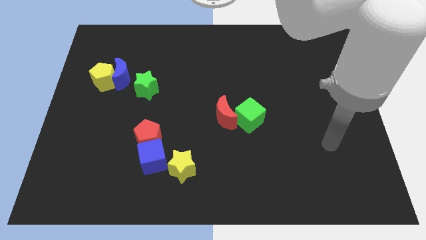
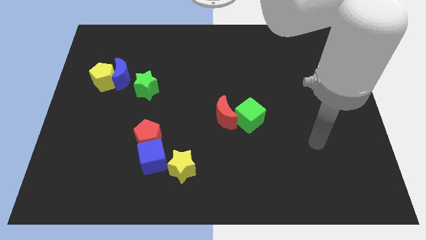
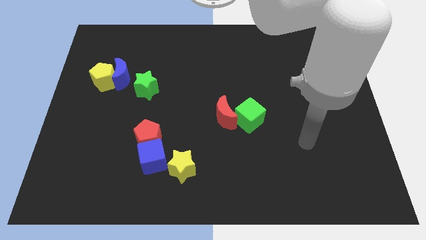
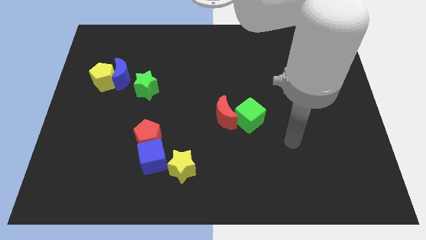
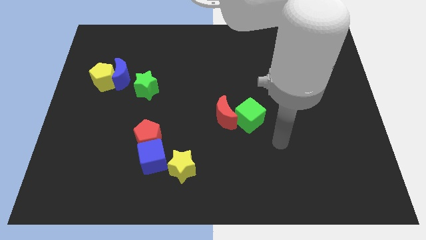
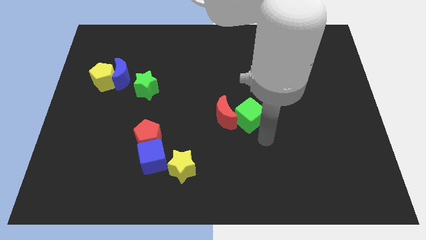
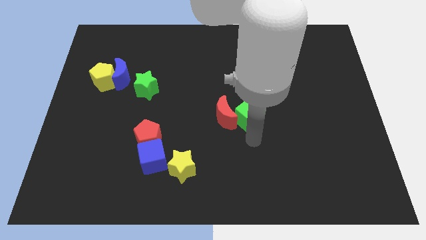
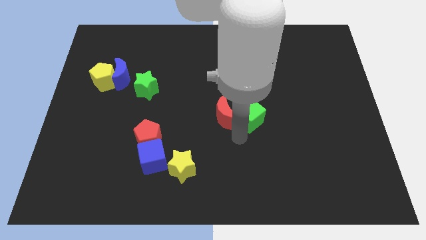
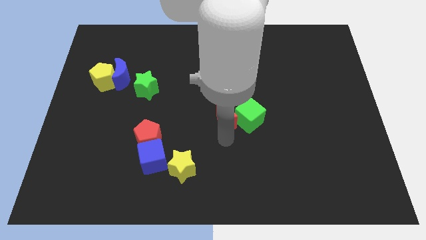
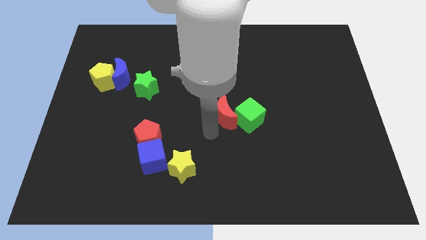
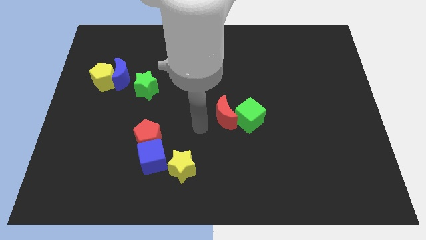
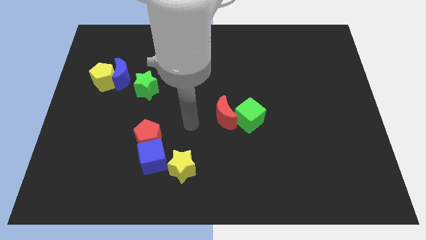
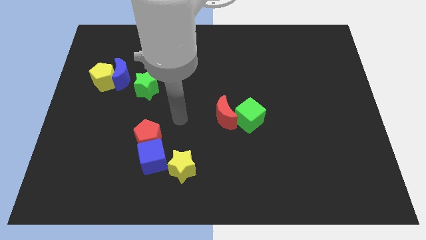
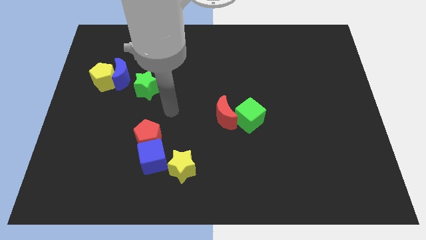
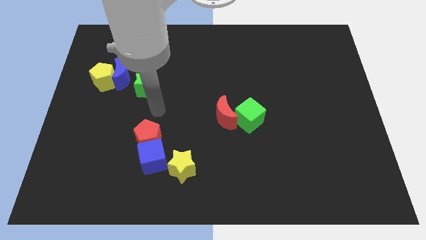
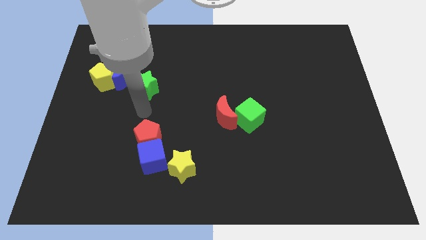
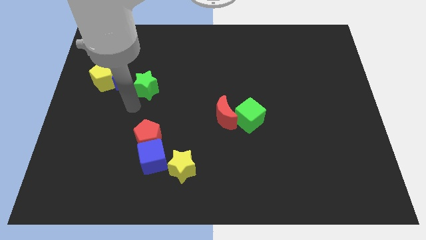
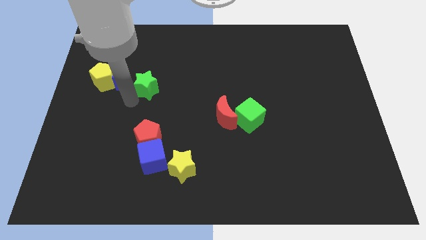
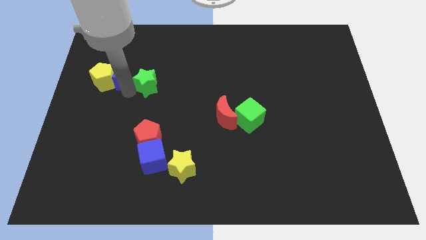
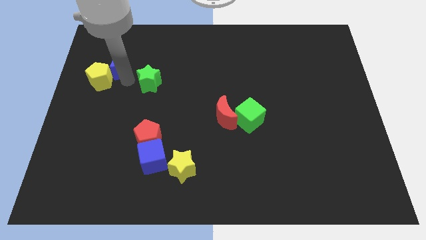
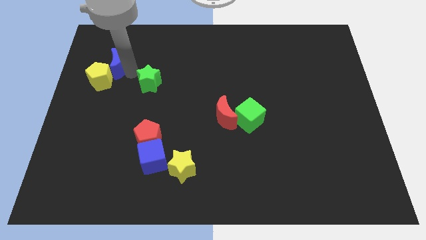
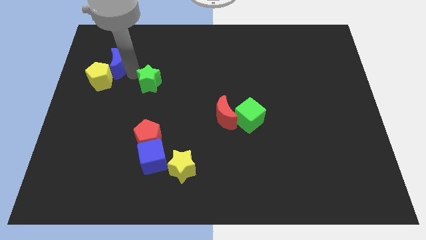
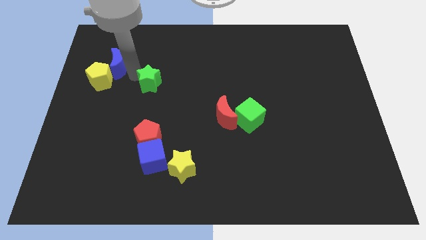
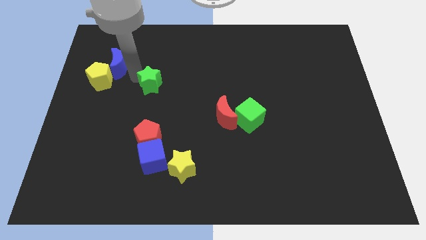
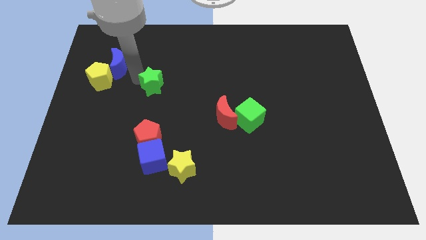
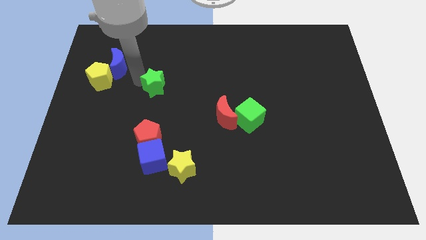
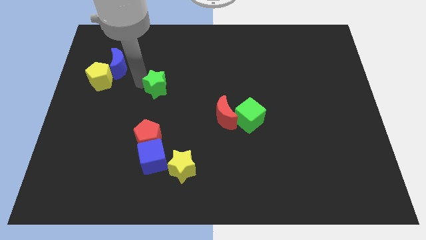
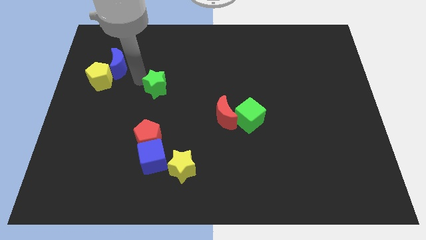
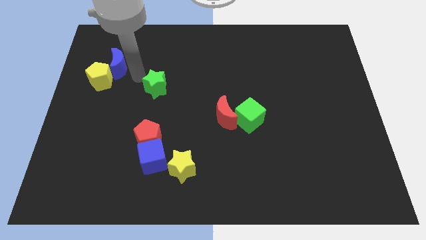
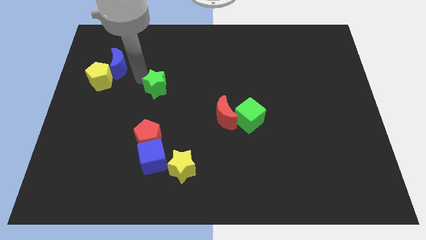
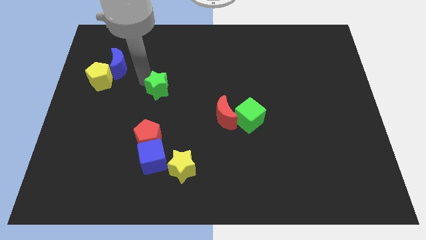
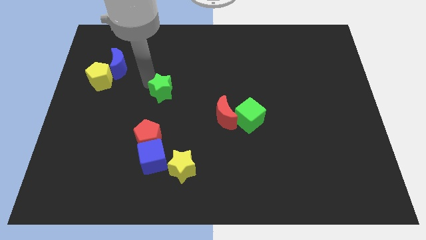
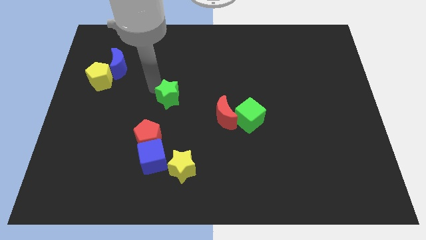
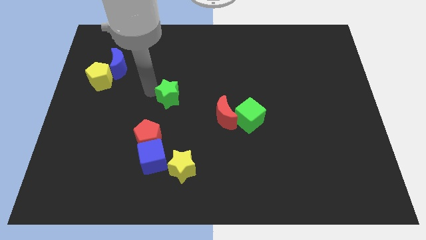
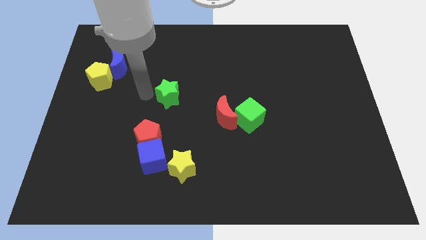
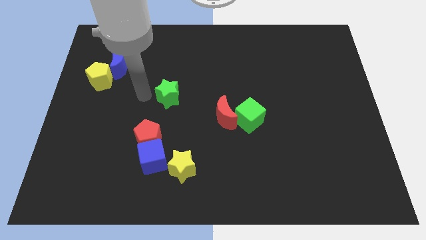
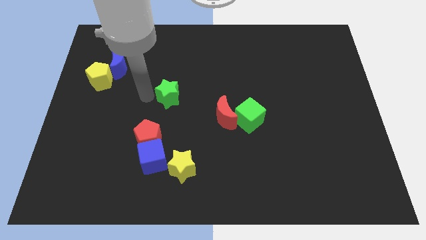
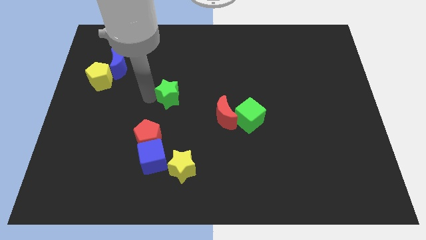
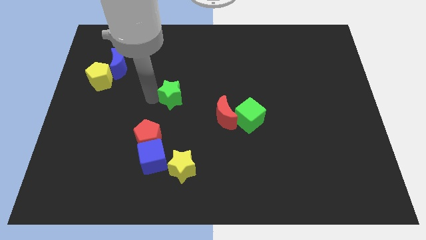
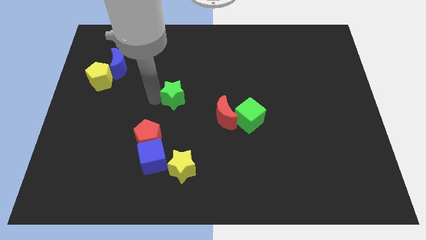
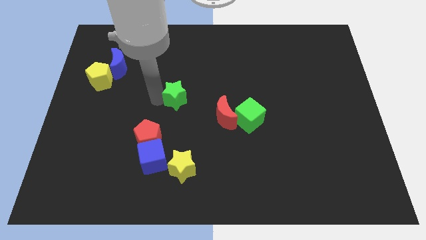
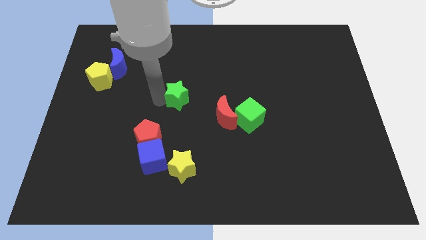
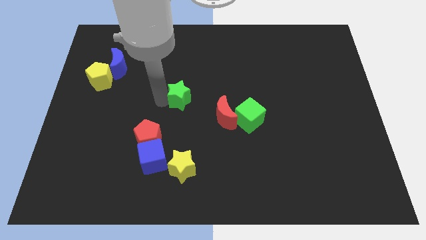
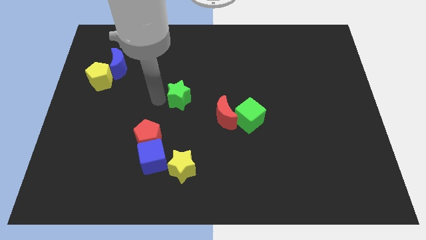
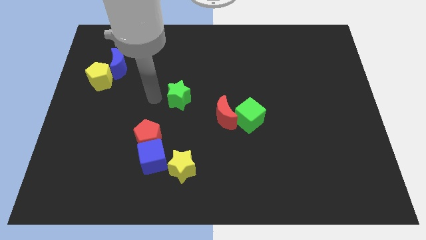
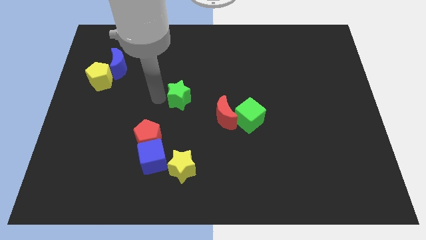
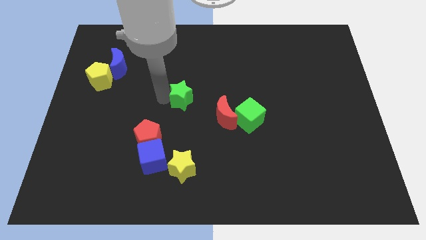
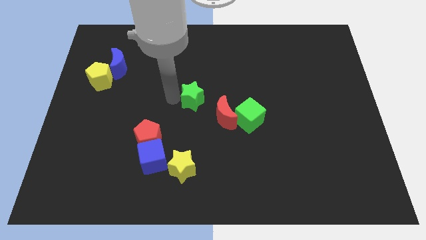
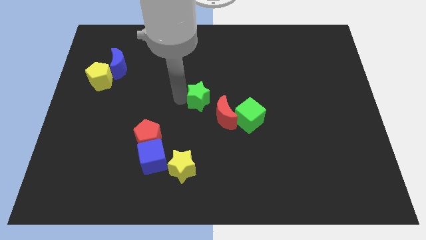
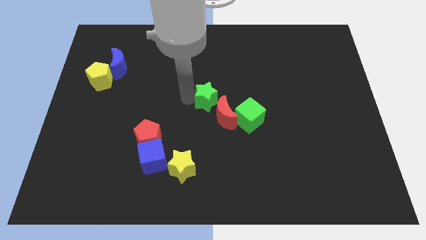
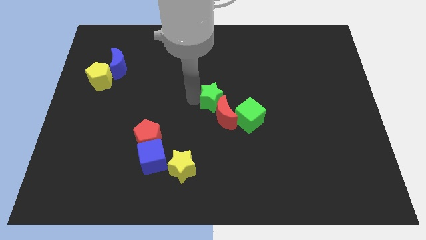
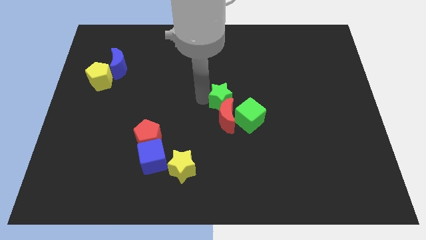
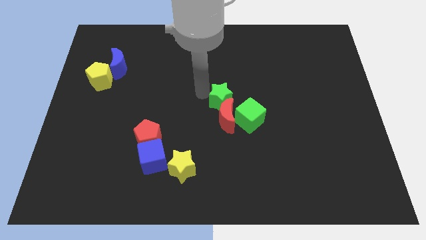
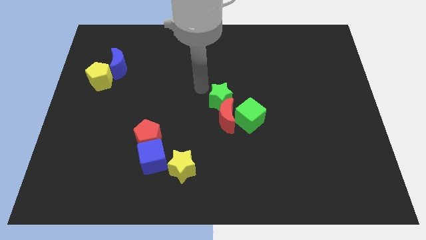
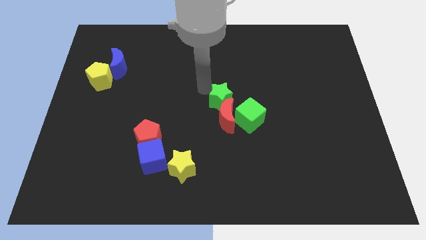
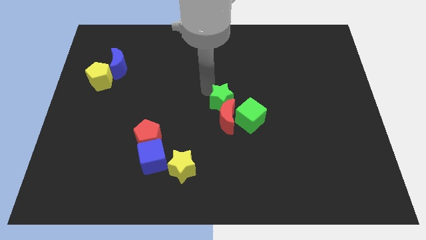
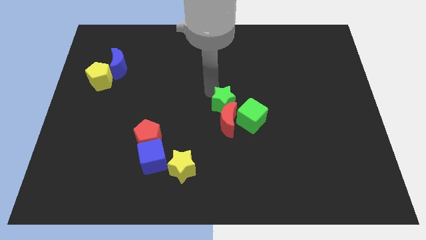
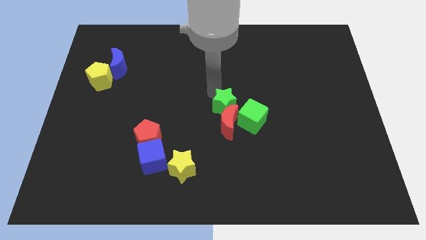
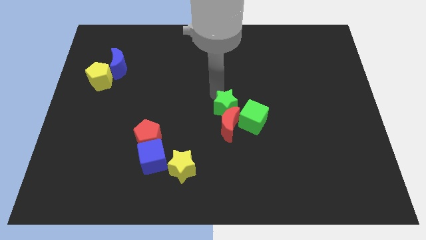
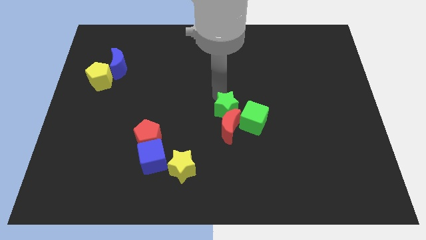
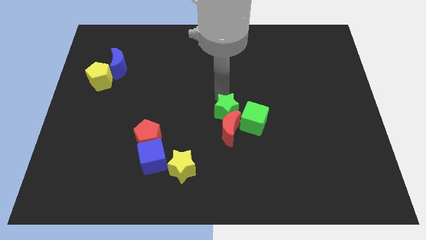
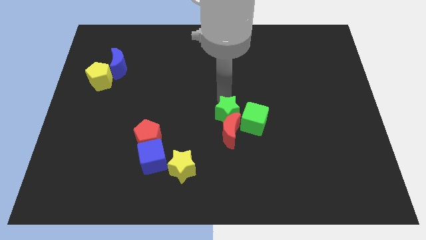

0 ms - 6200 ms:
slide the green star next to the green cube
